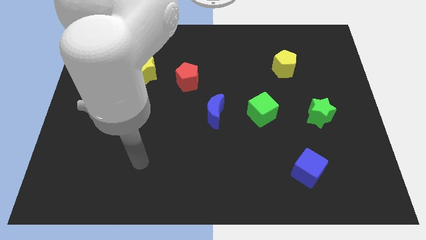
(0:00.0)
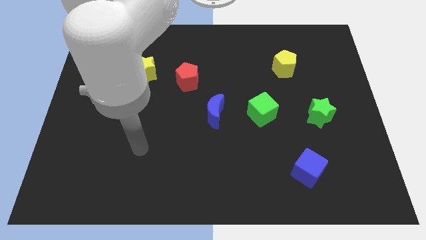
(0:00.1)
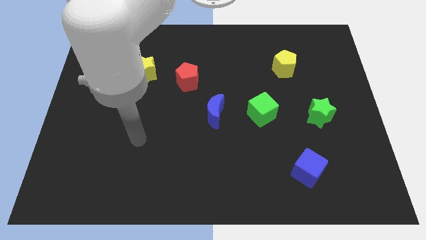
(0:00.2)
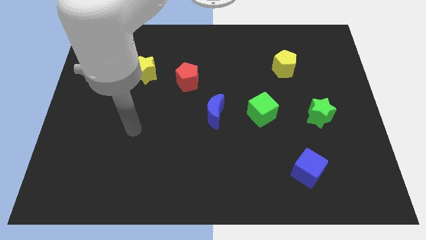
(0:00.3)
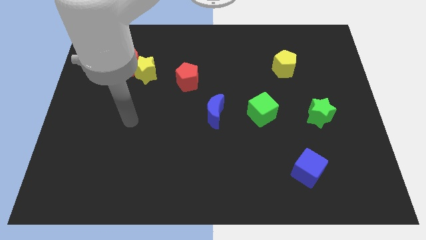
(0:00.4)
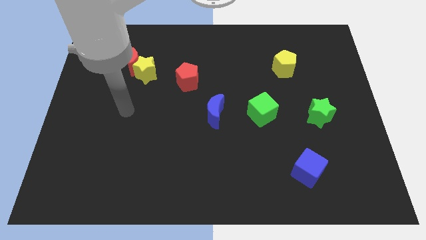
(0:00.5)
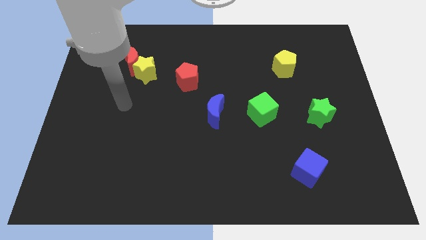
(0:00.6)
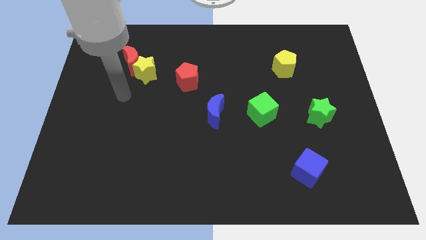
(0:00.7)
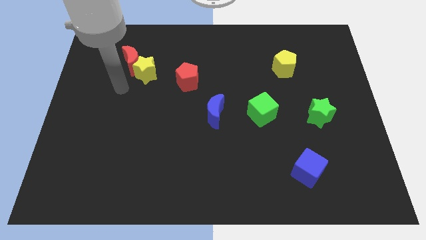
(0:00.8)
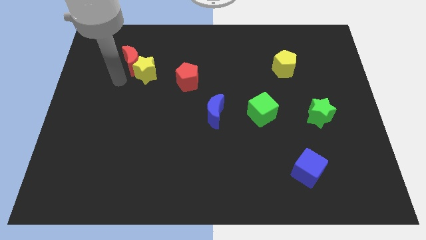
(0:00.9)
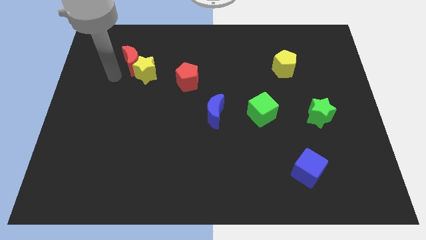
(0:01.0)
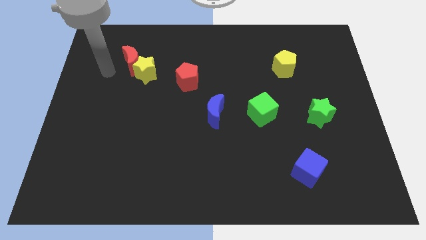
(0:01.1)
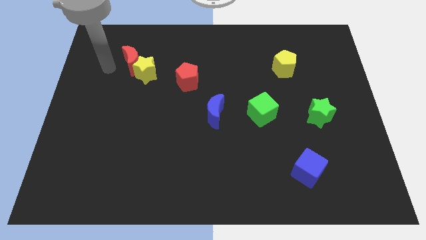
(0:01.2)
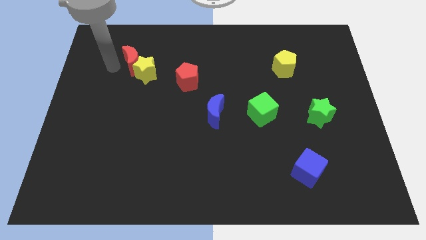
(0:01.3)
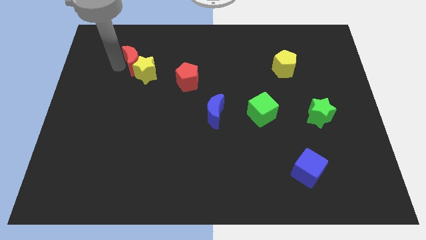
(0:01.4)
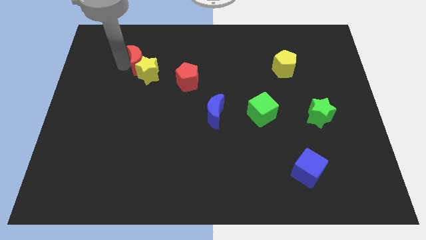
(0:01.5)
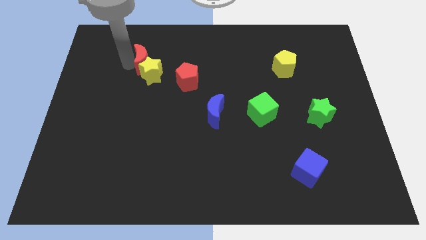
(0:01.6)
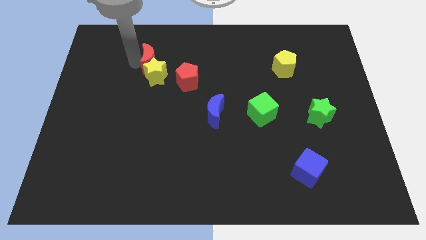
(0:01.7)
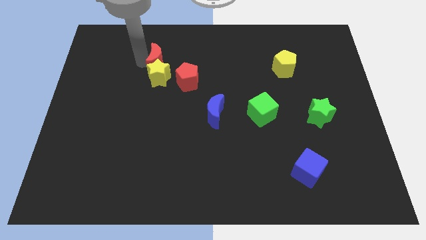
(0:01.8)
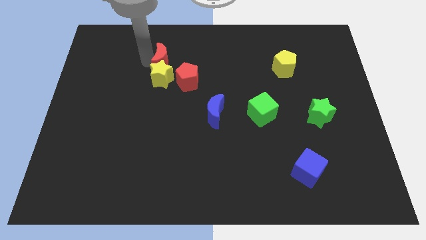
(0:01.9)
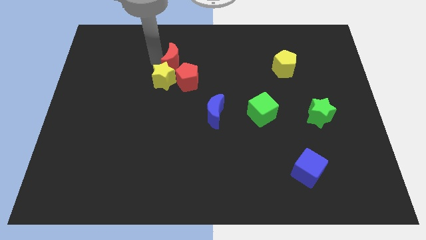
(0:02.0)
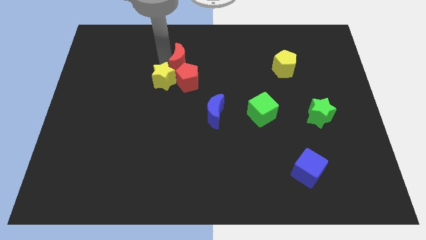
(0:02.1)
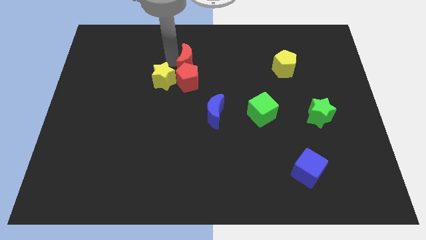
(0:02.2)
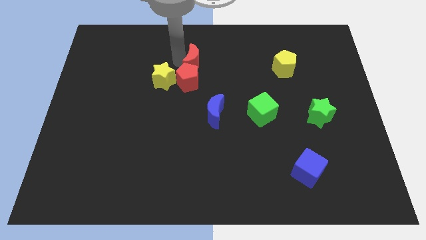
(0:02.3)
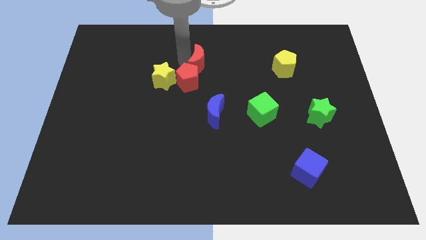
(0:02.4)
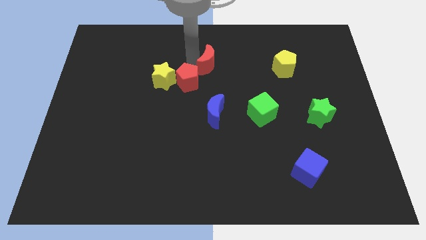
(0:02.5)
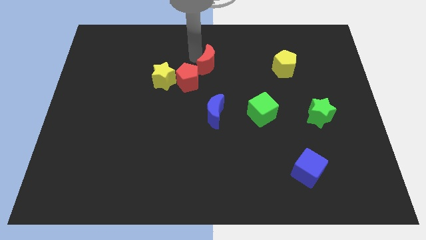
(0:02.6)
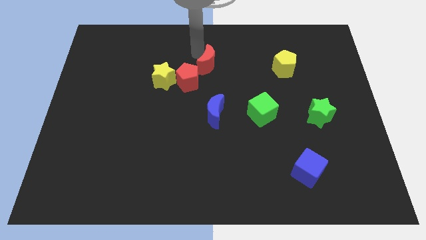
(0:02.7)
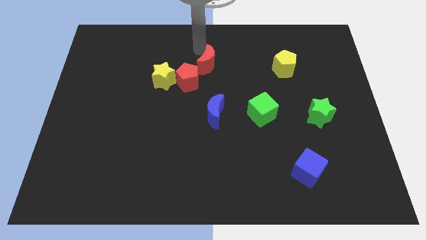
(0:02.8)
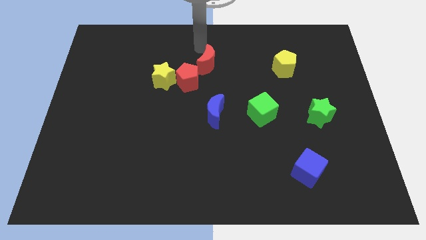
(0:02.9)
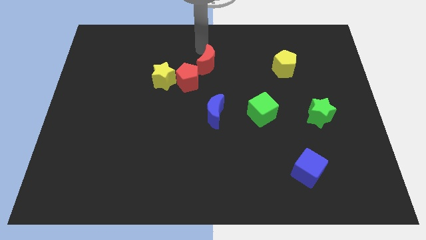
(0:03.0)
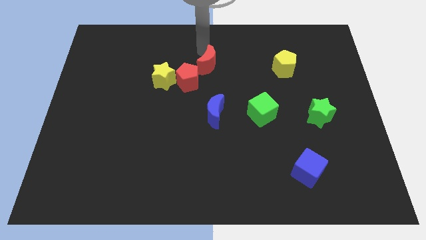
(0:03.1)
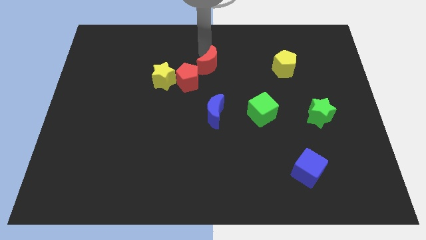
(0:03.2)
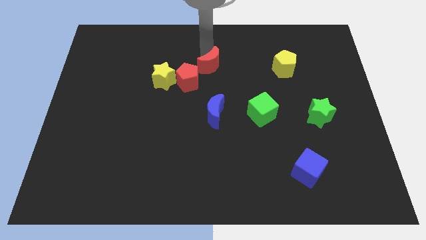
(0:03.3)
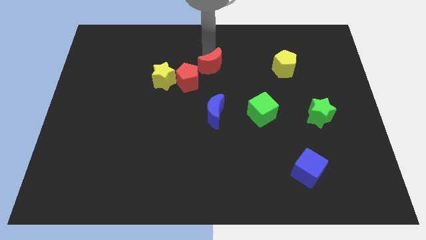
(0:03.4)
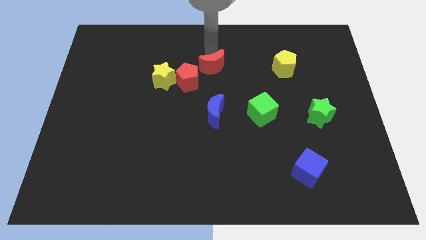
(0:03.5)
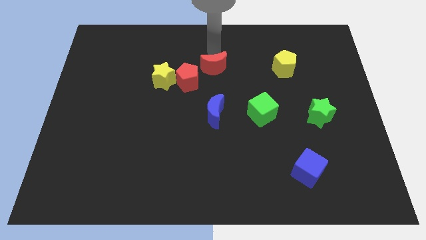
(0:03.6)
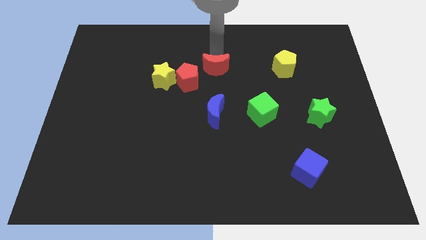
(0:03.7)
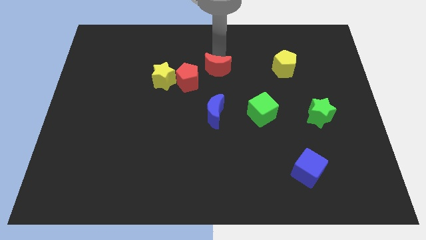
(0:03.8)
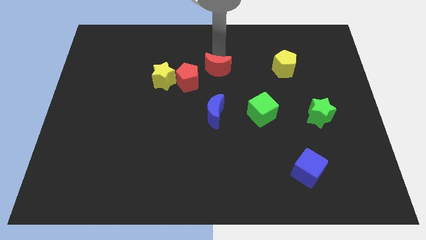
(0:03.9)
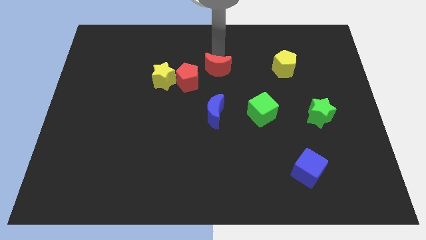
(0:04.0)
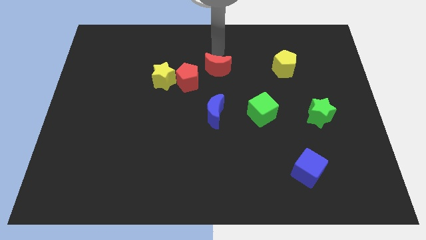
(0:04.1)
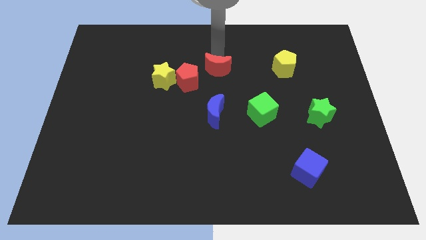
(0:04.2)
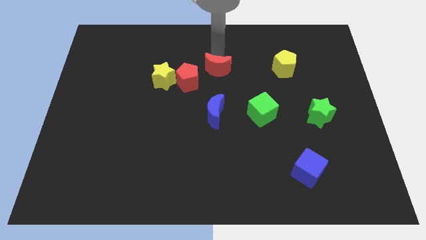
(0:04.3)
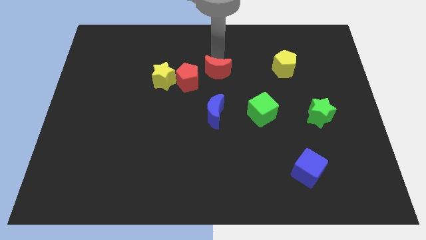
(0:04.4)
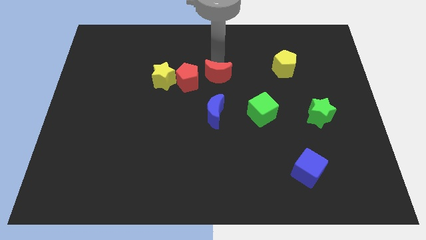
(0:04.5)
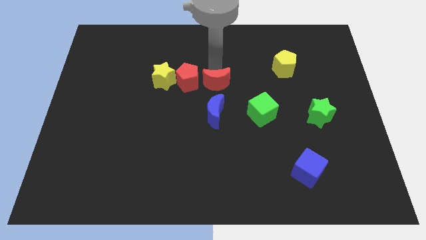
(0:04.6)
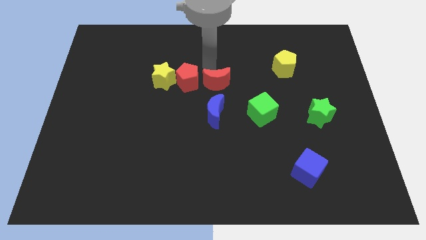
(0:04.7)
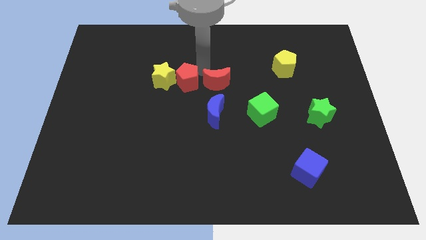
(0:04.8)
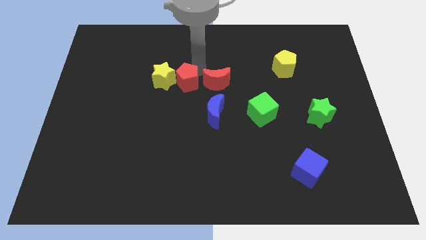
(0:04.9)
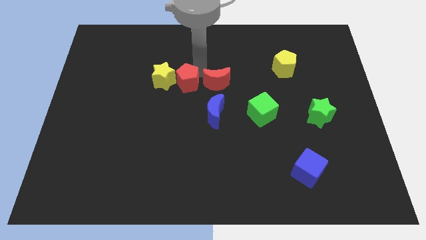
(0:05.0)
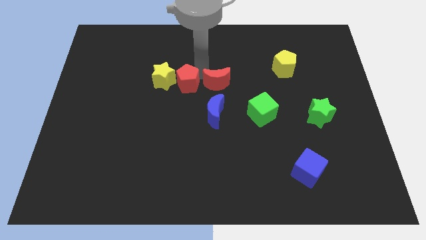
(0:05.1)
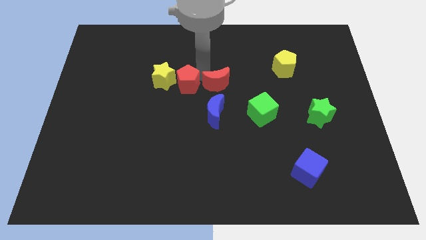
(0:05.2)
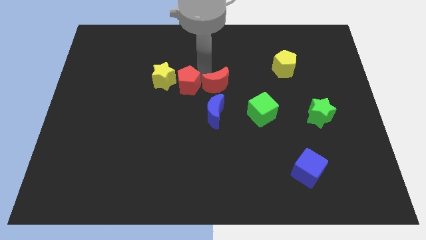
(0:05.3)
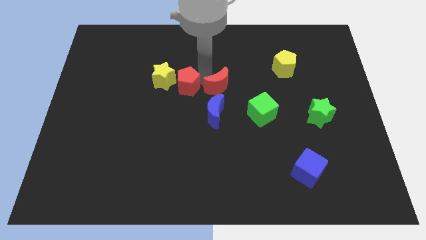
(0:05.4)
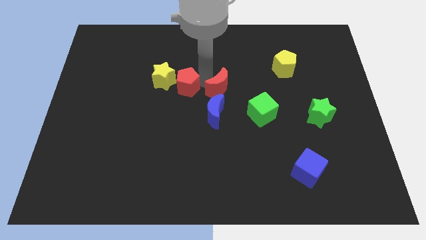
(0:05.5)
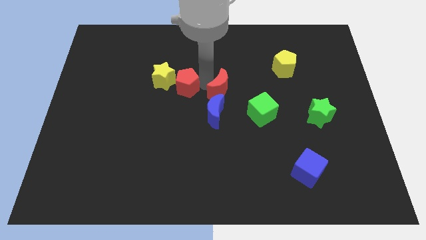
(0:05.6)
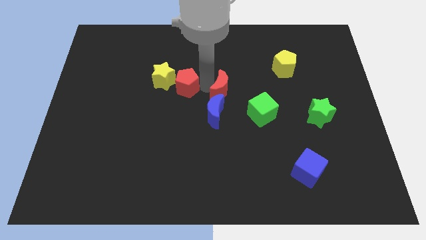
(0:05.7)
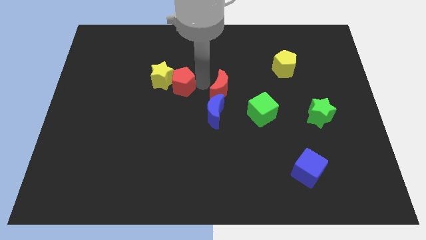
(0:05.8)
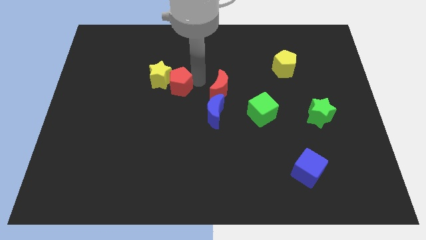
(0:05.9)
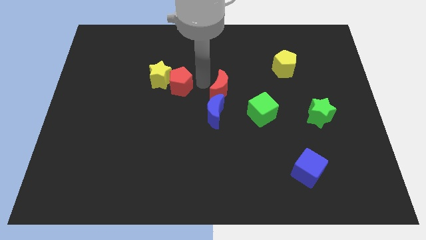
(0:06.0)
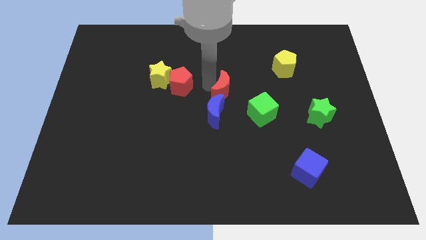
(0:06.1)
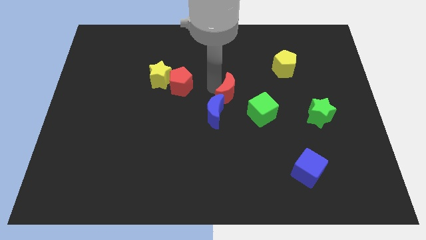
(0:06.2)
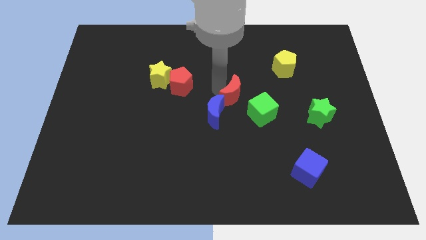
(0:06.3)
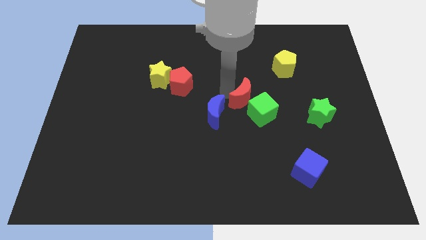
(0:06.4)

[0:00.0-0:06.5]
slide the red moon next to the green cube

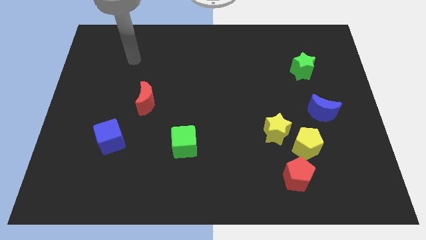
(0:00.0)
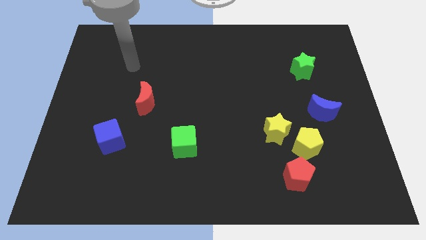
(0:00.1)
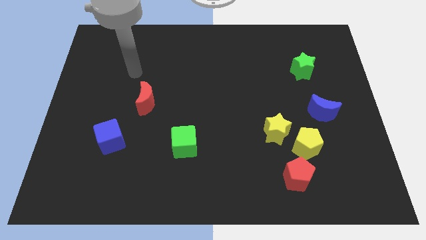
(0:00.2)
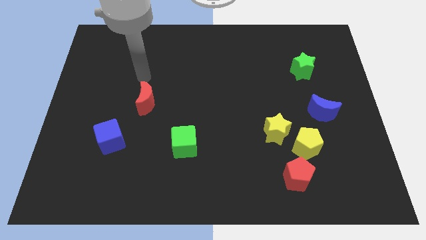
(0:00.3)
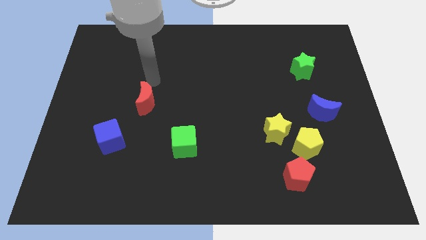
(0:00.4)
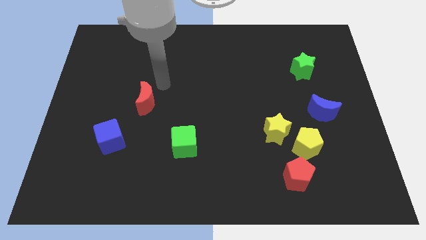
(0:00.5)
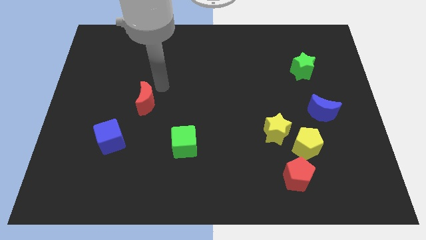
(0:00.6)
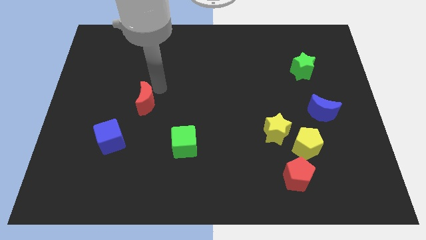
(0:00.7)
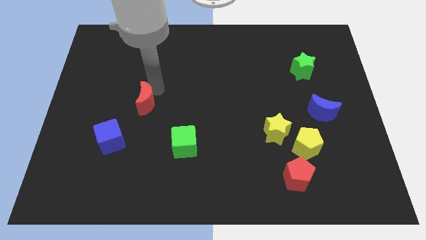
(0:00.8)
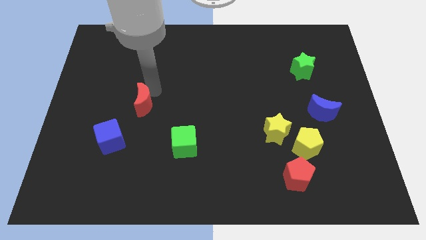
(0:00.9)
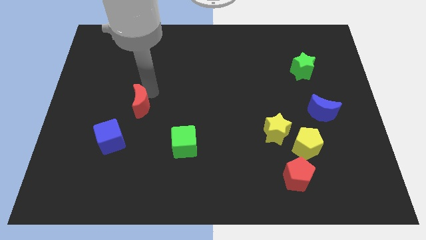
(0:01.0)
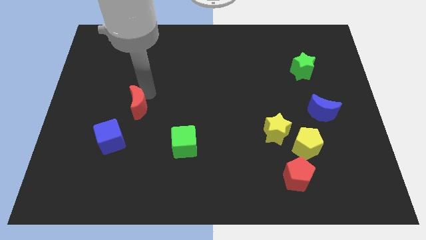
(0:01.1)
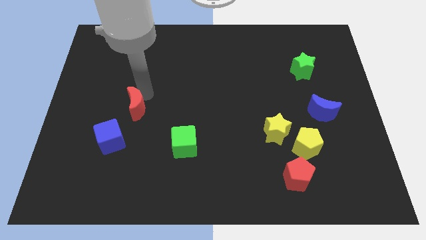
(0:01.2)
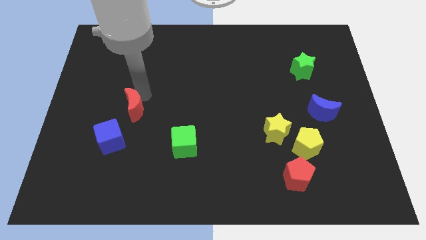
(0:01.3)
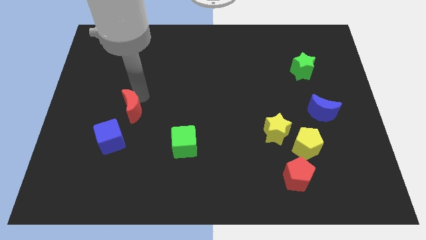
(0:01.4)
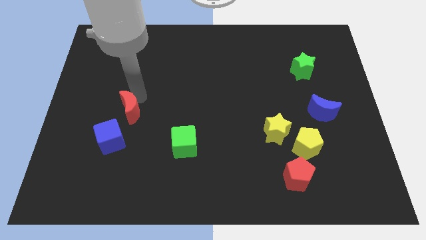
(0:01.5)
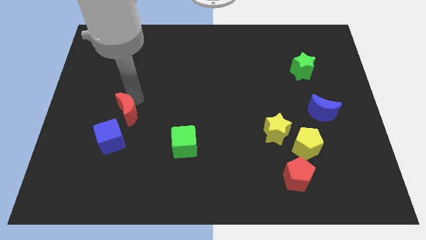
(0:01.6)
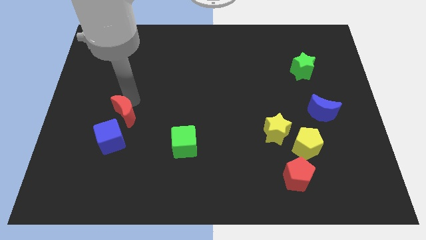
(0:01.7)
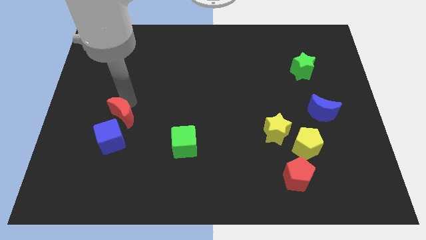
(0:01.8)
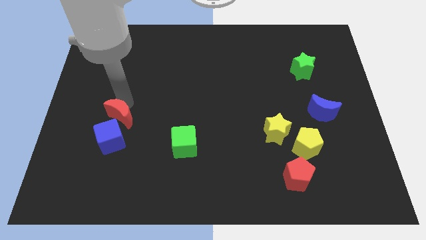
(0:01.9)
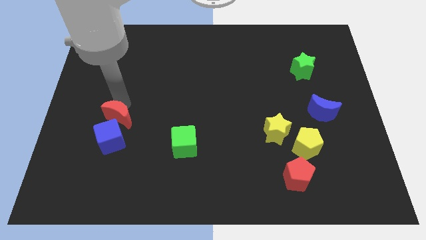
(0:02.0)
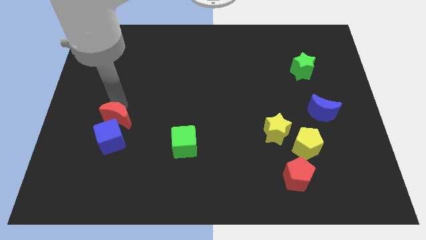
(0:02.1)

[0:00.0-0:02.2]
push the red moon close to the blue cube
